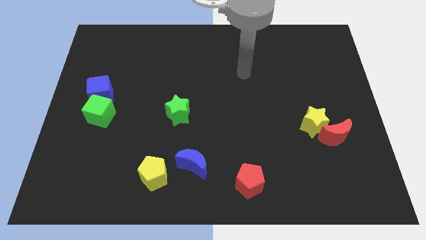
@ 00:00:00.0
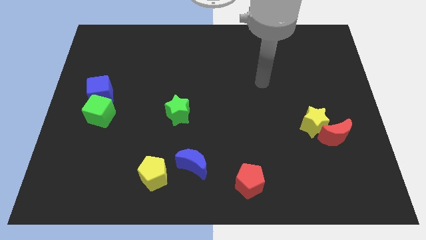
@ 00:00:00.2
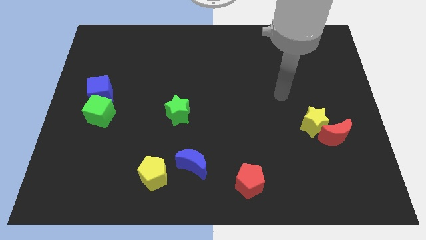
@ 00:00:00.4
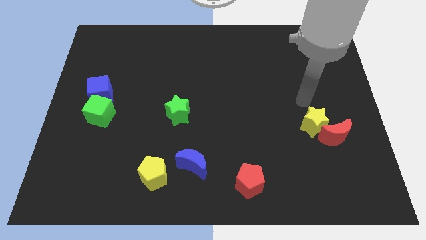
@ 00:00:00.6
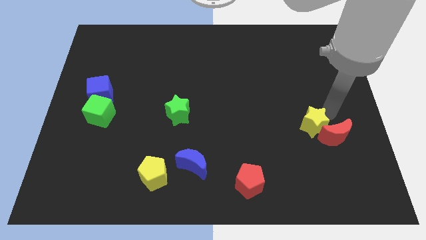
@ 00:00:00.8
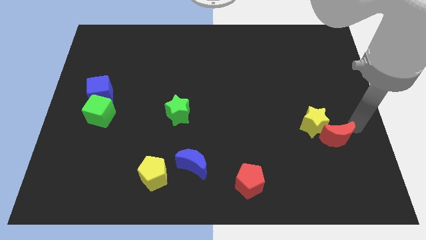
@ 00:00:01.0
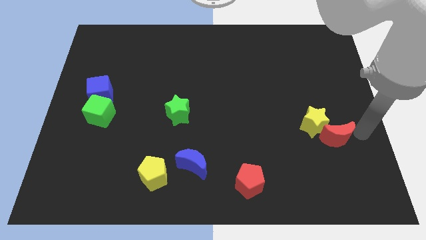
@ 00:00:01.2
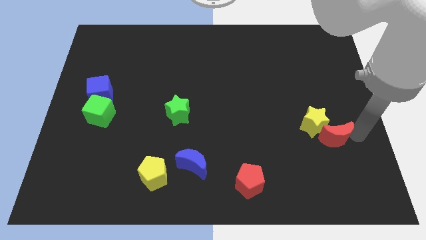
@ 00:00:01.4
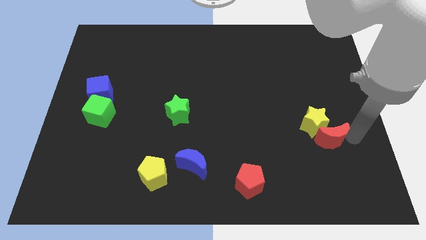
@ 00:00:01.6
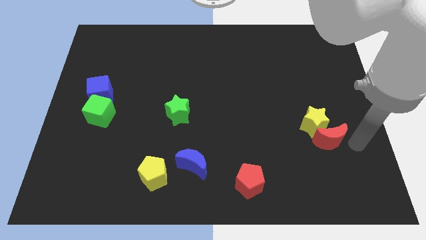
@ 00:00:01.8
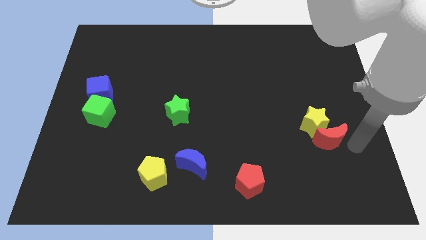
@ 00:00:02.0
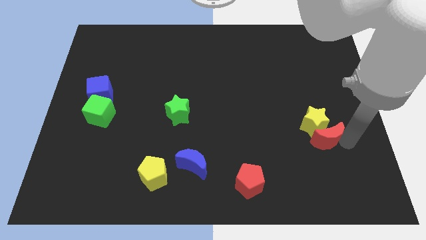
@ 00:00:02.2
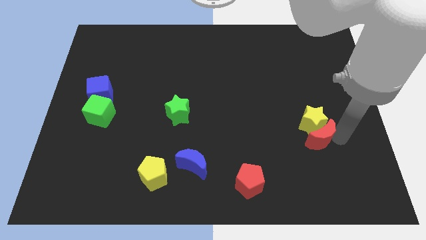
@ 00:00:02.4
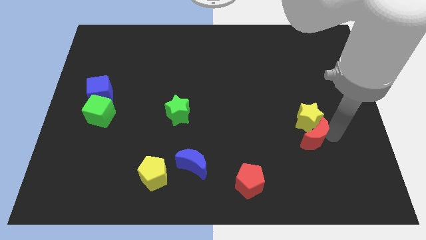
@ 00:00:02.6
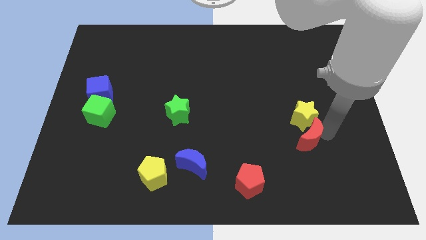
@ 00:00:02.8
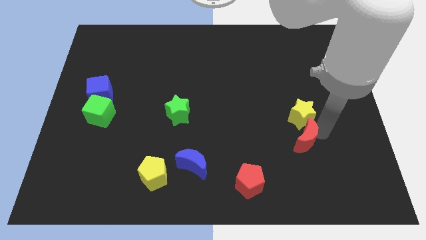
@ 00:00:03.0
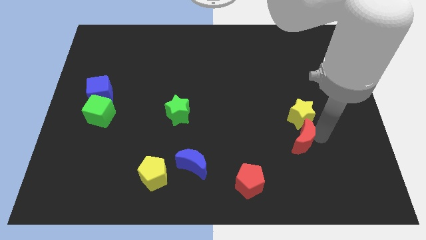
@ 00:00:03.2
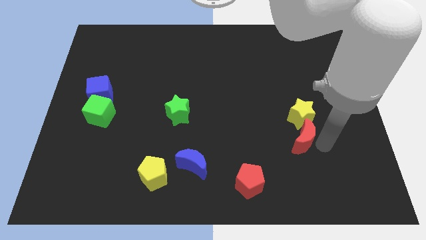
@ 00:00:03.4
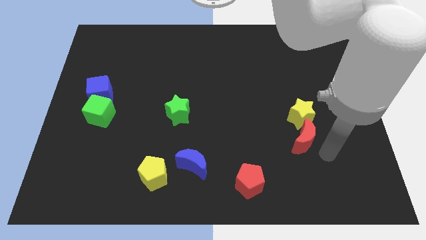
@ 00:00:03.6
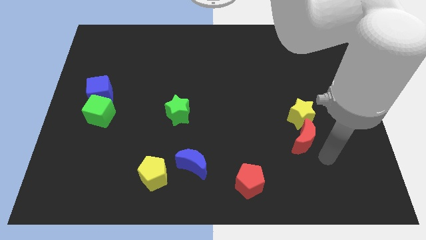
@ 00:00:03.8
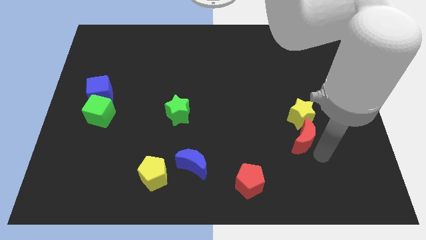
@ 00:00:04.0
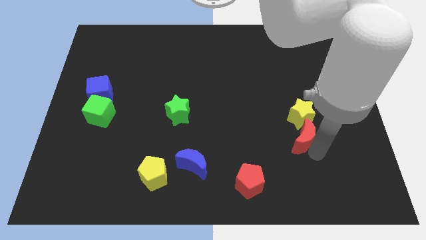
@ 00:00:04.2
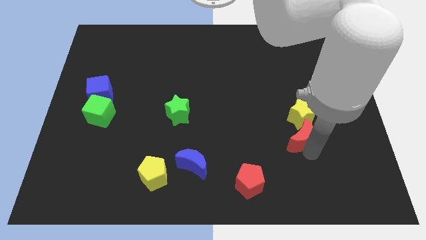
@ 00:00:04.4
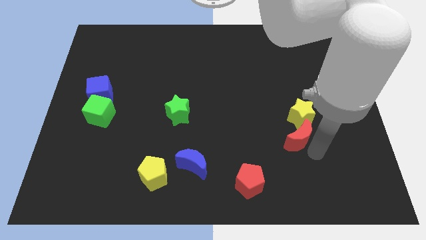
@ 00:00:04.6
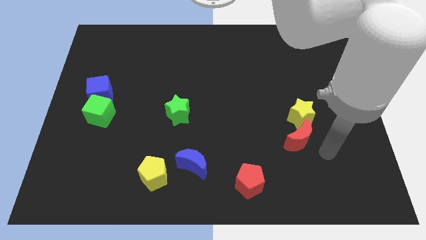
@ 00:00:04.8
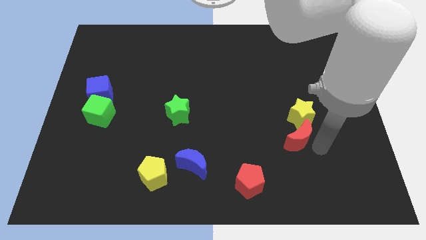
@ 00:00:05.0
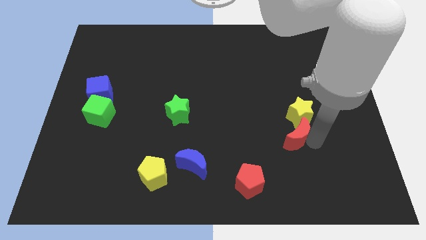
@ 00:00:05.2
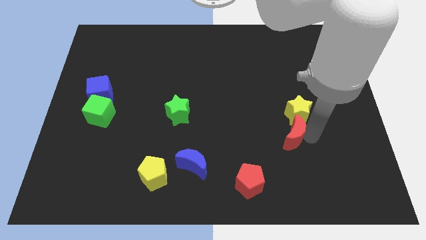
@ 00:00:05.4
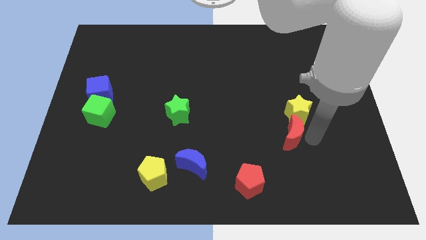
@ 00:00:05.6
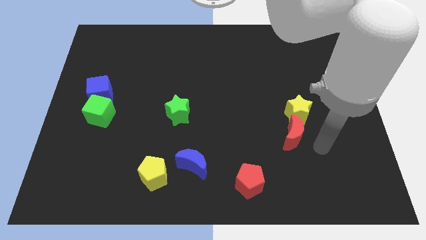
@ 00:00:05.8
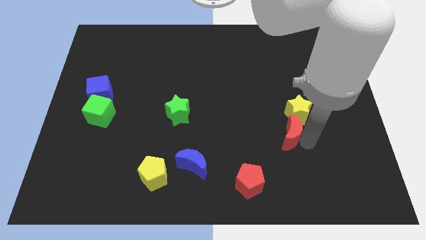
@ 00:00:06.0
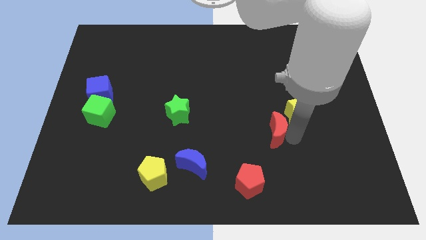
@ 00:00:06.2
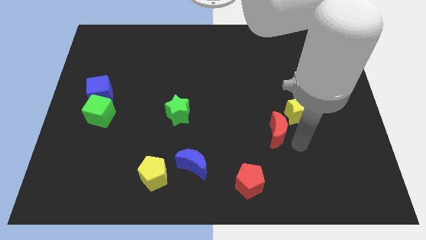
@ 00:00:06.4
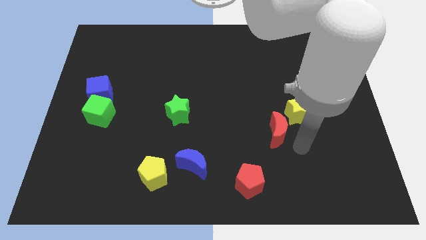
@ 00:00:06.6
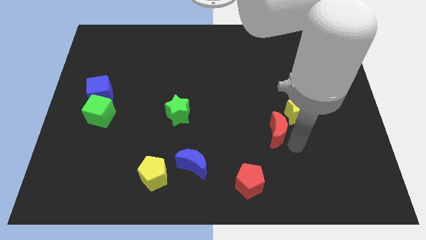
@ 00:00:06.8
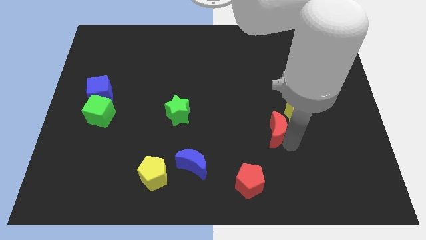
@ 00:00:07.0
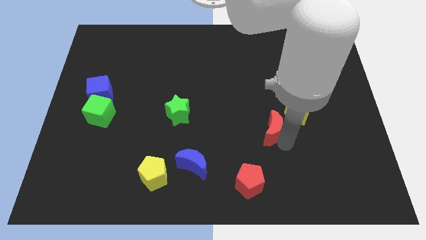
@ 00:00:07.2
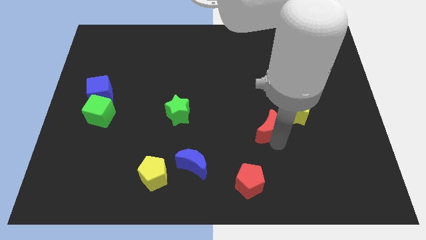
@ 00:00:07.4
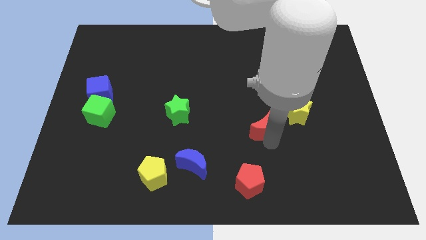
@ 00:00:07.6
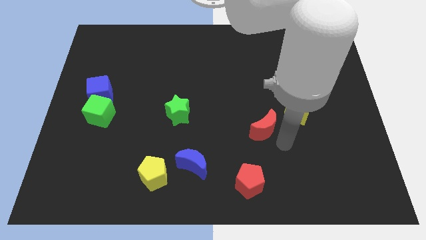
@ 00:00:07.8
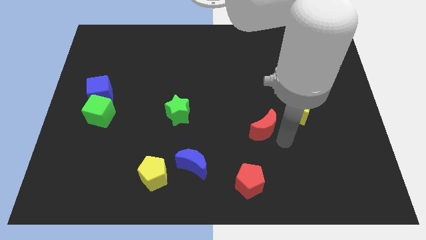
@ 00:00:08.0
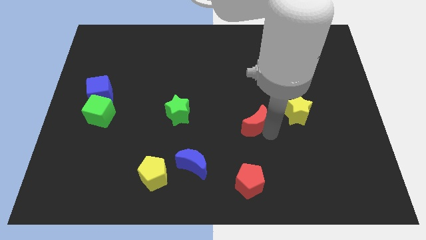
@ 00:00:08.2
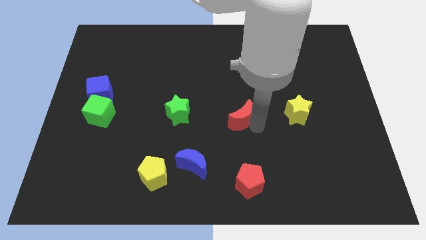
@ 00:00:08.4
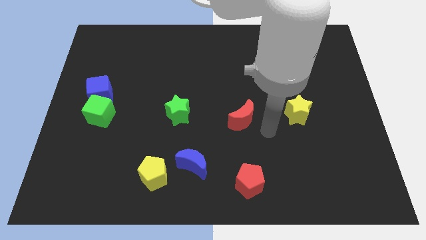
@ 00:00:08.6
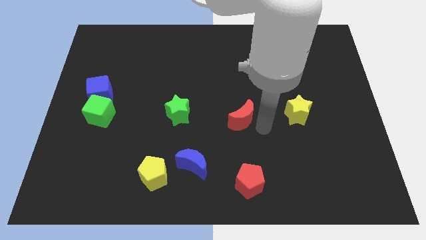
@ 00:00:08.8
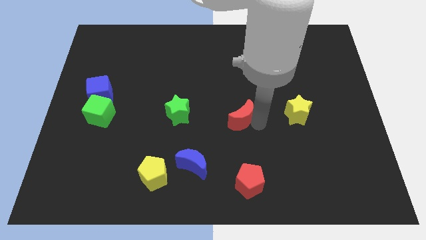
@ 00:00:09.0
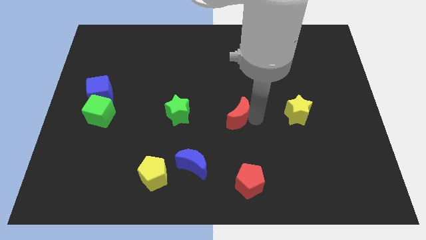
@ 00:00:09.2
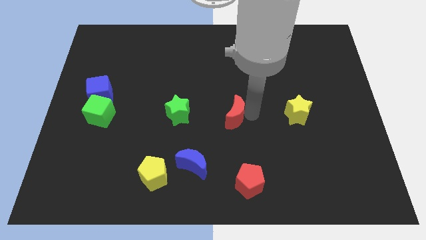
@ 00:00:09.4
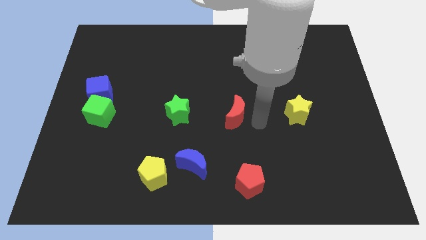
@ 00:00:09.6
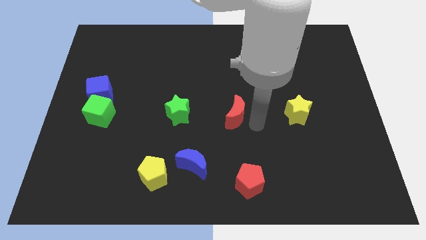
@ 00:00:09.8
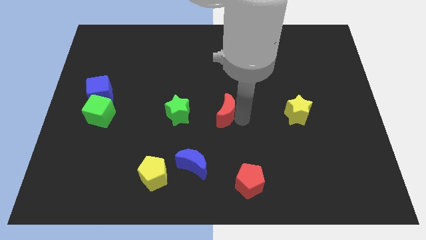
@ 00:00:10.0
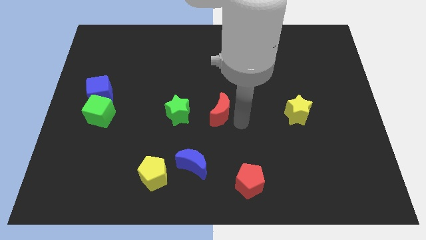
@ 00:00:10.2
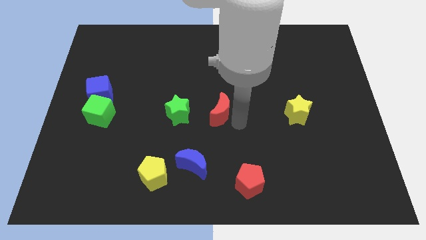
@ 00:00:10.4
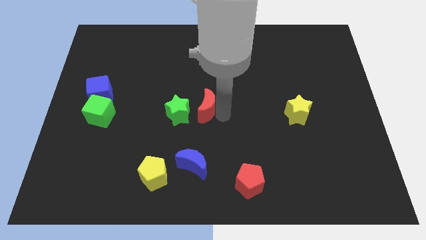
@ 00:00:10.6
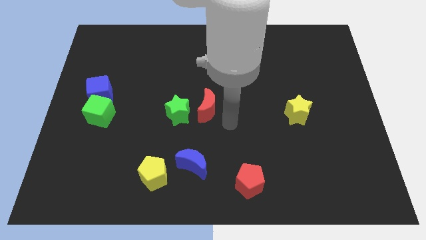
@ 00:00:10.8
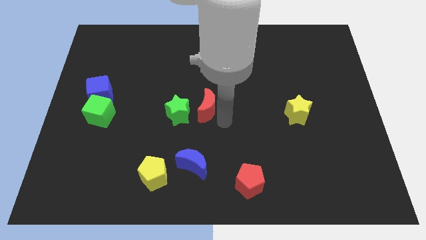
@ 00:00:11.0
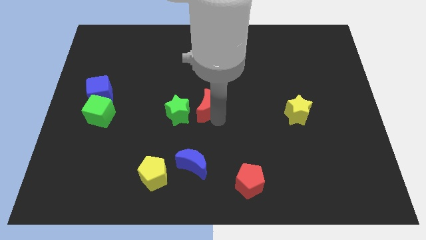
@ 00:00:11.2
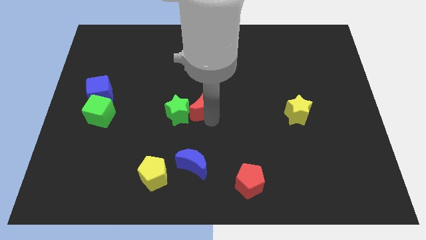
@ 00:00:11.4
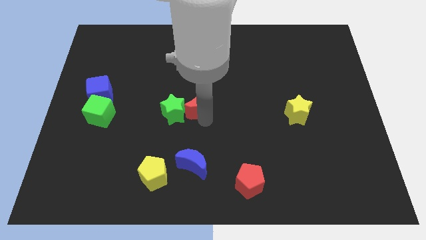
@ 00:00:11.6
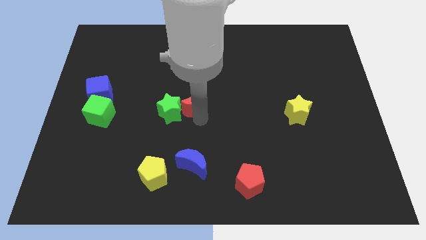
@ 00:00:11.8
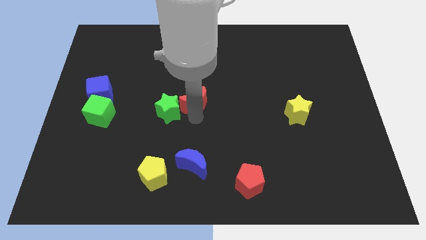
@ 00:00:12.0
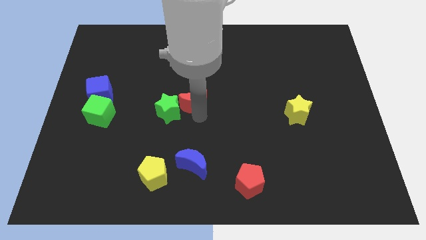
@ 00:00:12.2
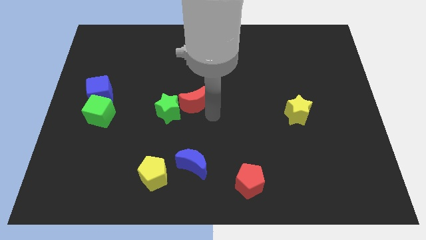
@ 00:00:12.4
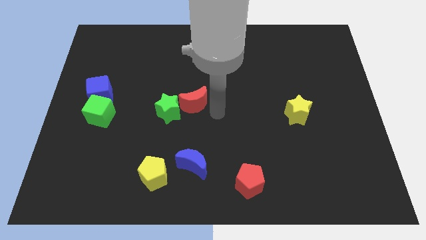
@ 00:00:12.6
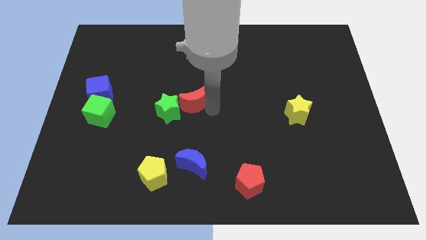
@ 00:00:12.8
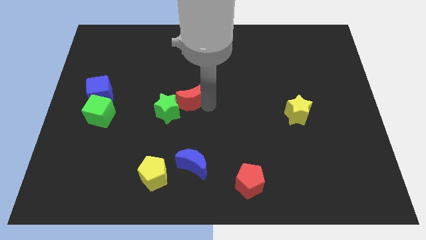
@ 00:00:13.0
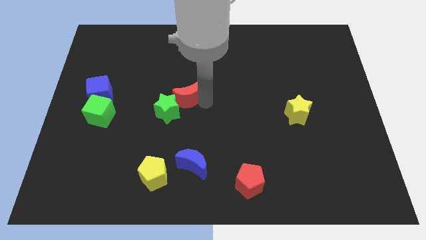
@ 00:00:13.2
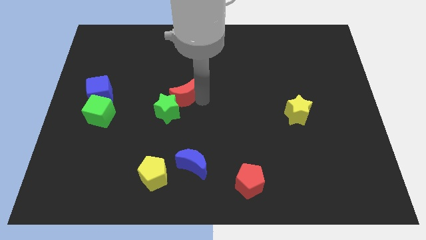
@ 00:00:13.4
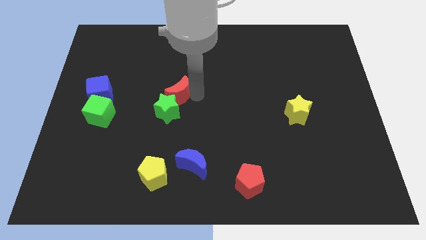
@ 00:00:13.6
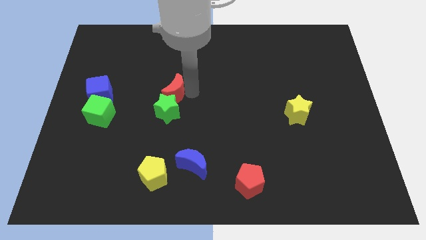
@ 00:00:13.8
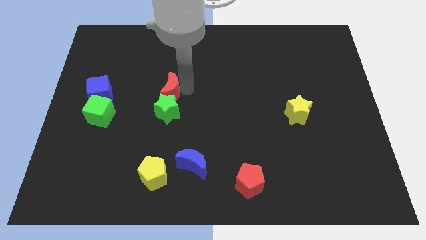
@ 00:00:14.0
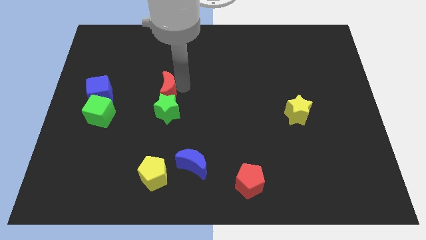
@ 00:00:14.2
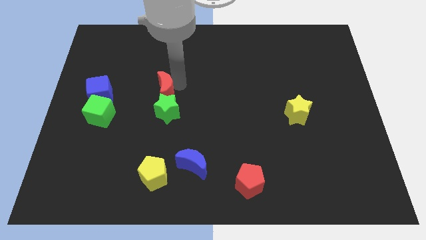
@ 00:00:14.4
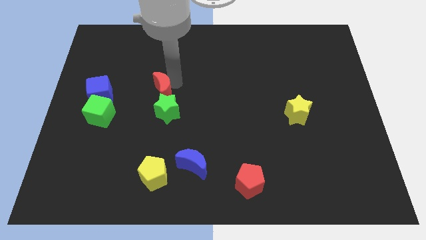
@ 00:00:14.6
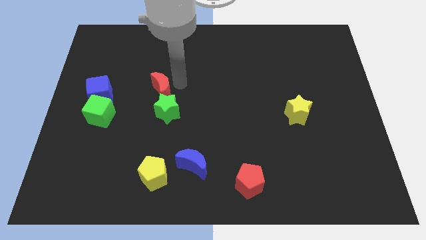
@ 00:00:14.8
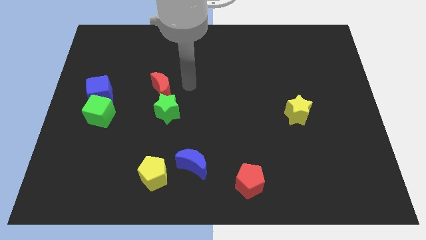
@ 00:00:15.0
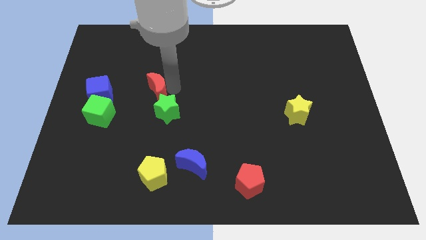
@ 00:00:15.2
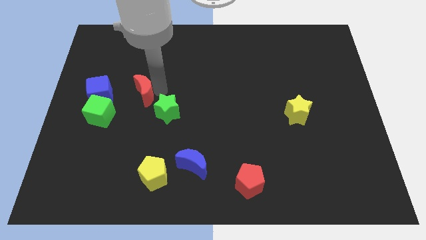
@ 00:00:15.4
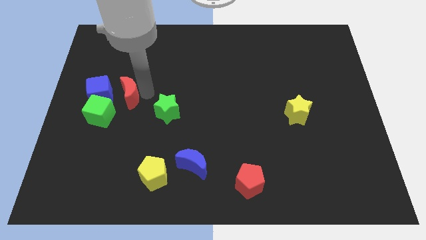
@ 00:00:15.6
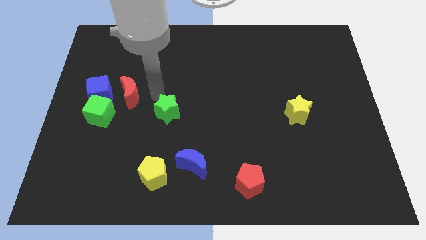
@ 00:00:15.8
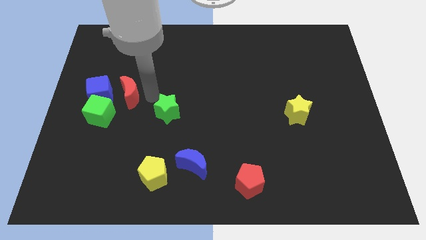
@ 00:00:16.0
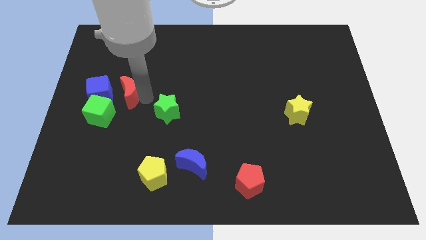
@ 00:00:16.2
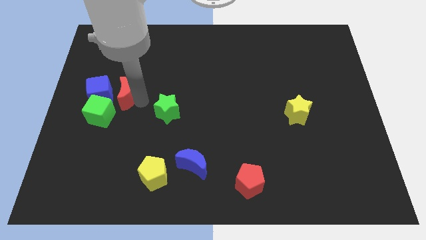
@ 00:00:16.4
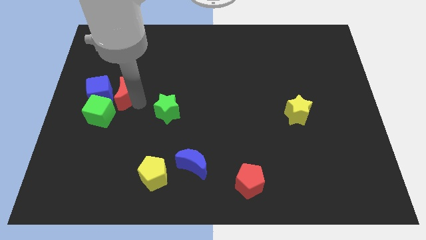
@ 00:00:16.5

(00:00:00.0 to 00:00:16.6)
slide the red moon close to the blue cube
